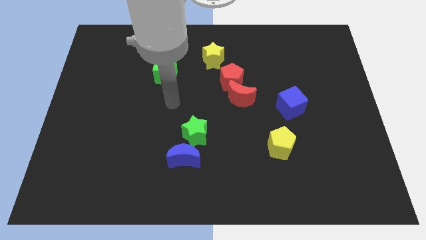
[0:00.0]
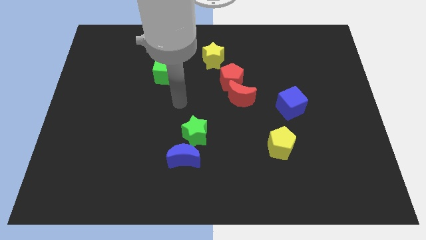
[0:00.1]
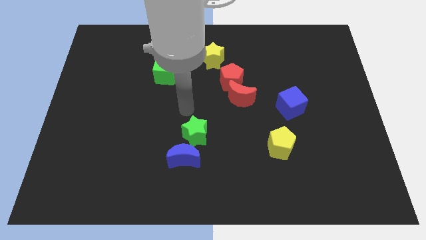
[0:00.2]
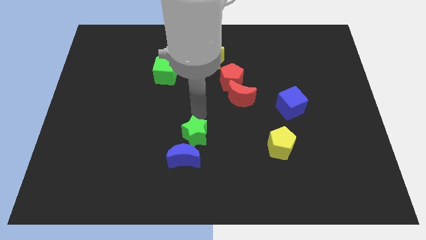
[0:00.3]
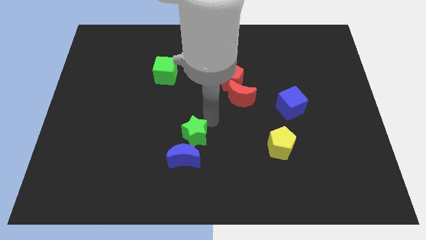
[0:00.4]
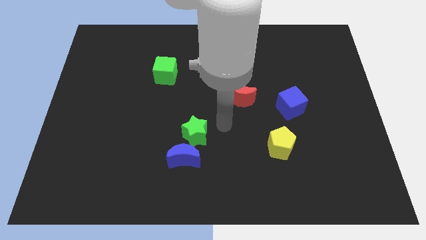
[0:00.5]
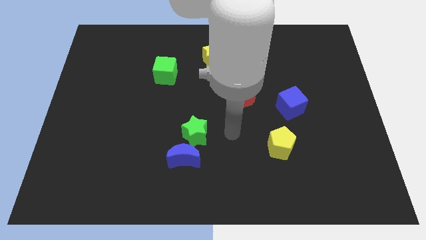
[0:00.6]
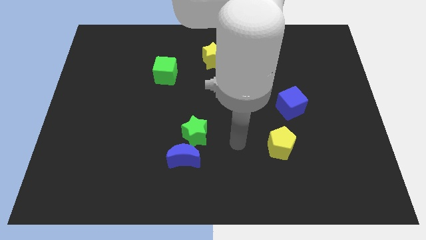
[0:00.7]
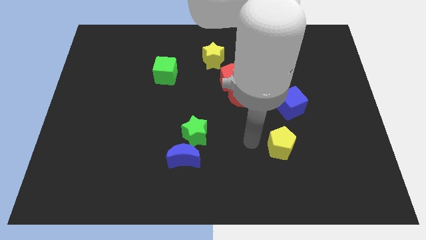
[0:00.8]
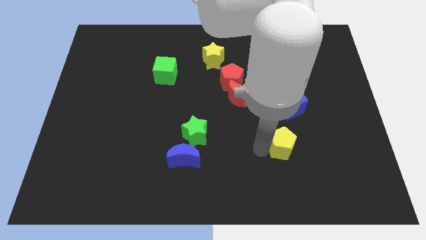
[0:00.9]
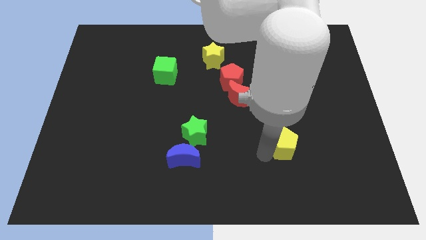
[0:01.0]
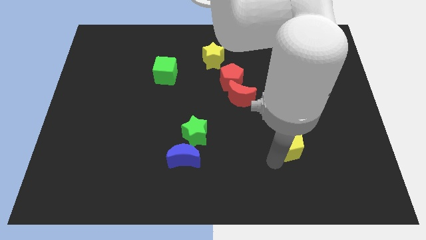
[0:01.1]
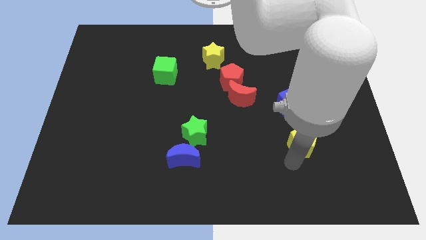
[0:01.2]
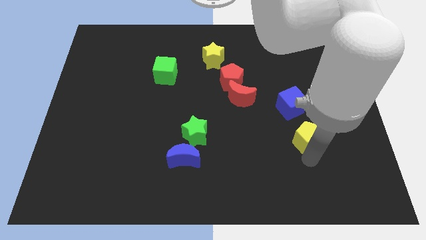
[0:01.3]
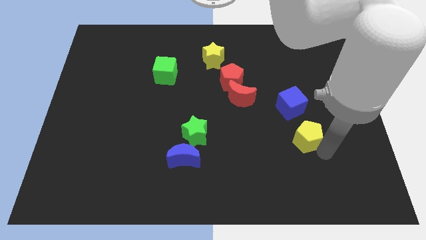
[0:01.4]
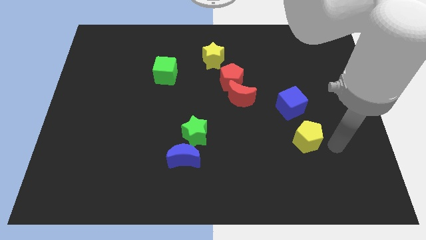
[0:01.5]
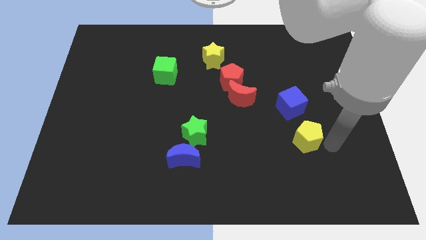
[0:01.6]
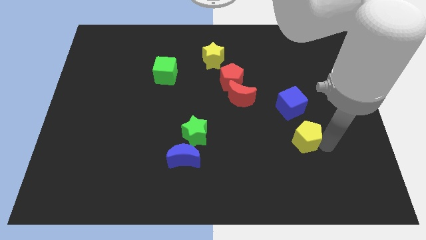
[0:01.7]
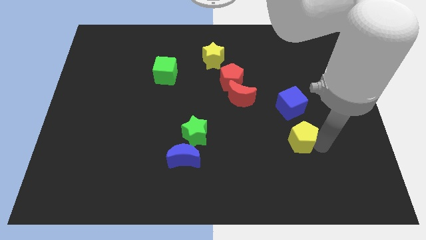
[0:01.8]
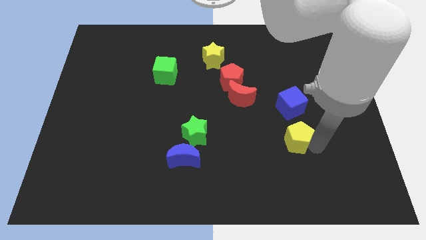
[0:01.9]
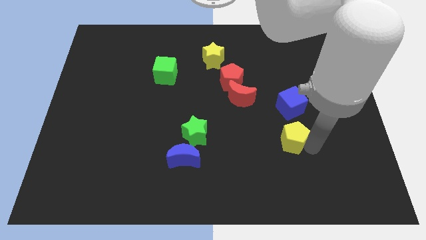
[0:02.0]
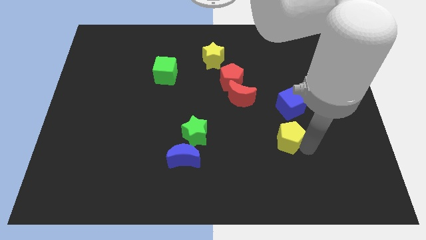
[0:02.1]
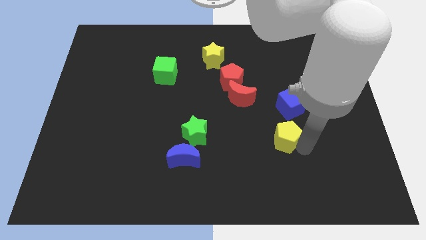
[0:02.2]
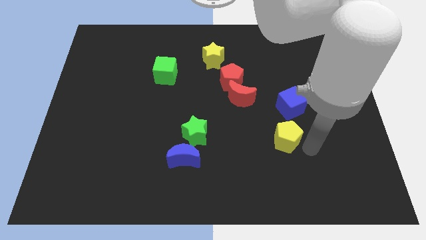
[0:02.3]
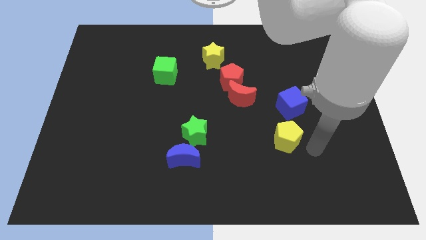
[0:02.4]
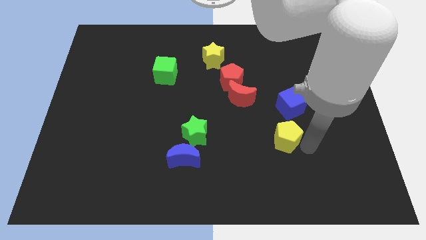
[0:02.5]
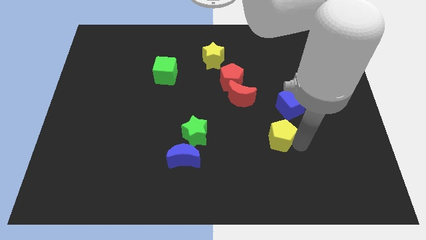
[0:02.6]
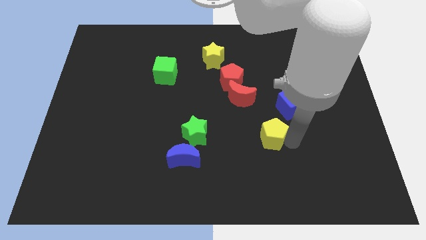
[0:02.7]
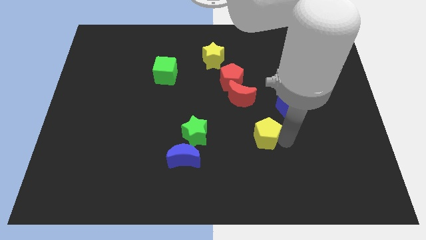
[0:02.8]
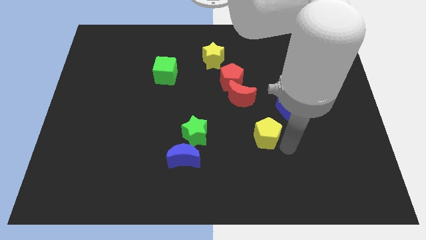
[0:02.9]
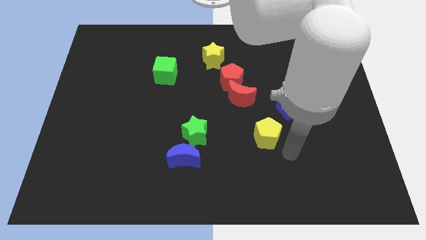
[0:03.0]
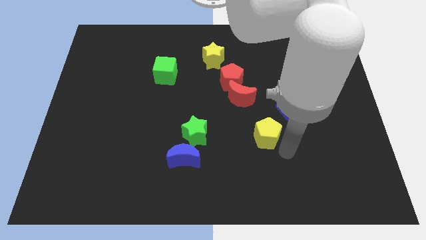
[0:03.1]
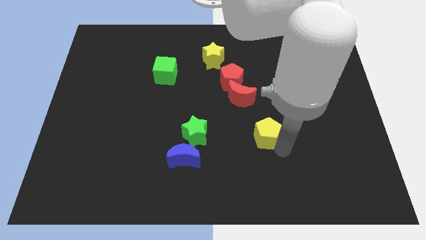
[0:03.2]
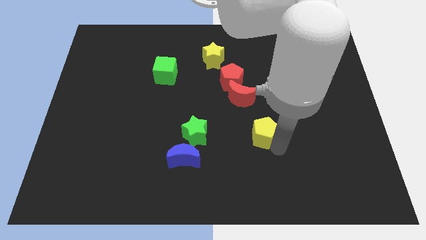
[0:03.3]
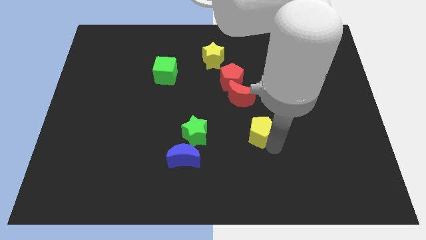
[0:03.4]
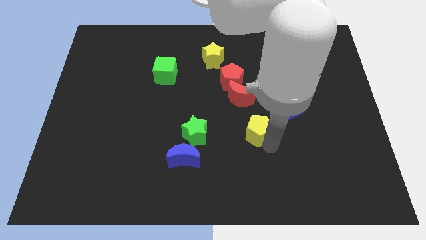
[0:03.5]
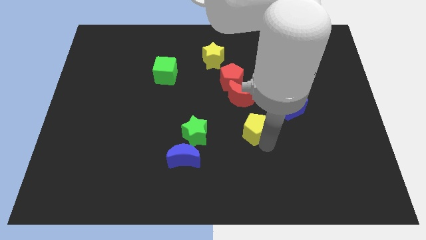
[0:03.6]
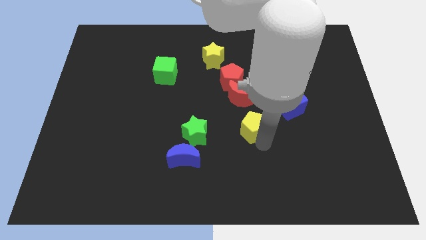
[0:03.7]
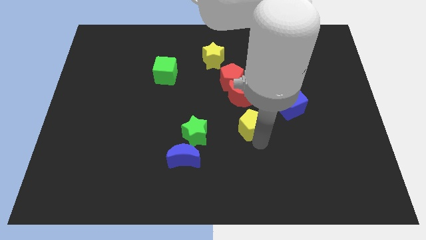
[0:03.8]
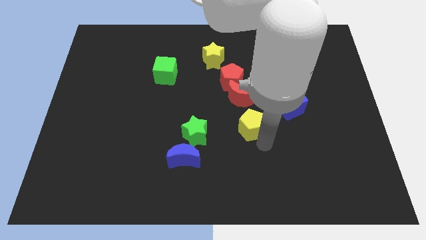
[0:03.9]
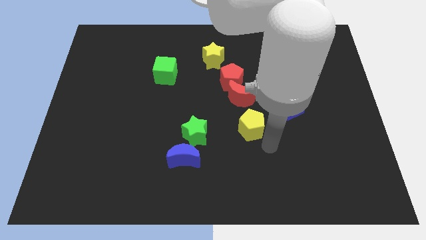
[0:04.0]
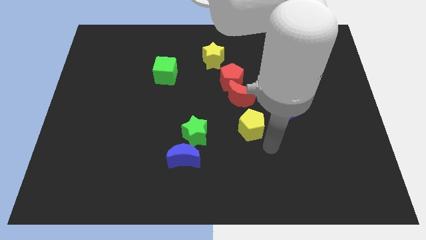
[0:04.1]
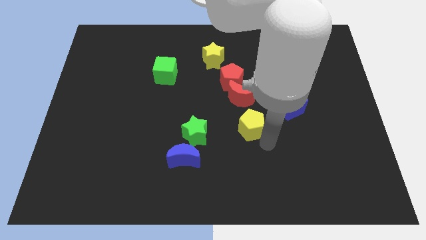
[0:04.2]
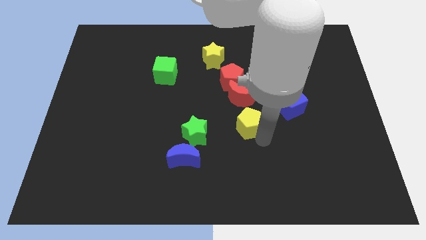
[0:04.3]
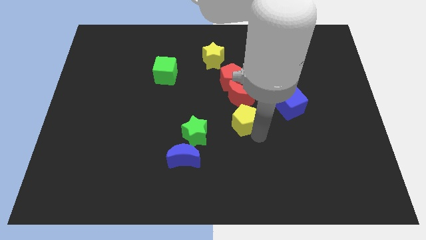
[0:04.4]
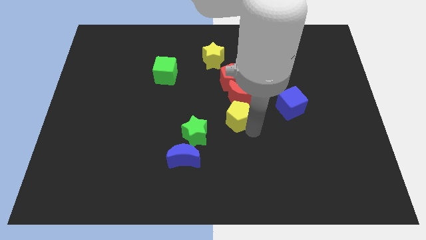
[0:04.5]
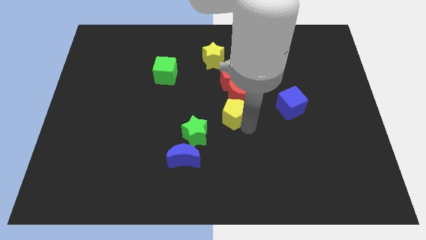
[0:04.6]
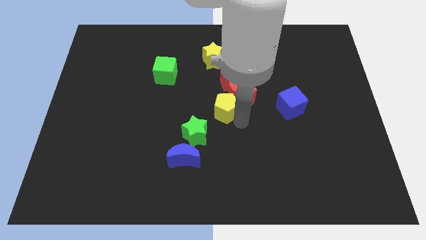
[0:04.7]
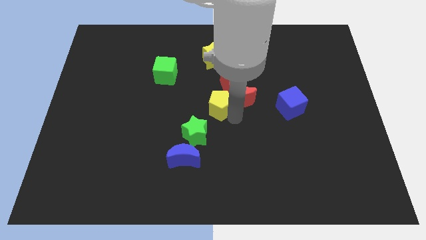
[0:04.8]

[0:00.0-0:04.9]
move the yellow pentagon diagonally down and to the left of the red pentagon

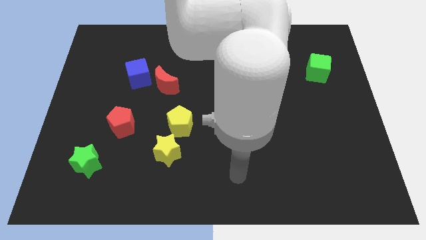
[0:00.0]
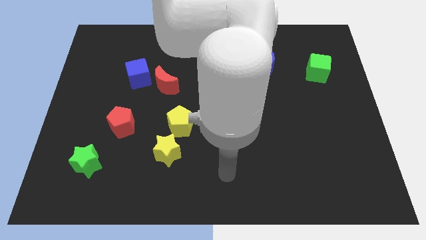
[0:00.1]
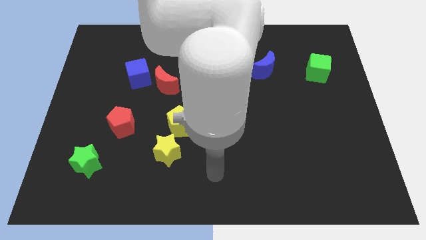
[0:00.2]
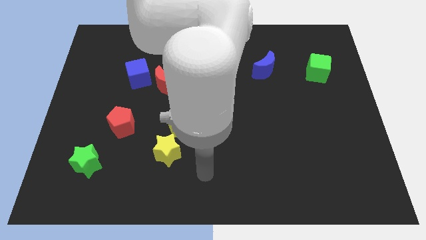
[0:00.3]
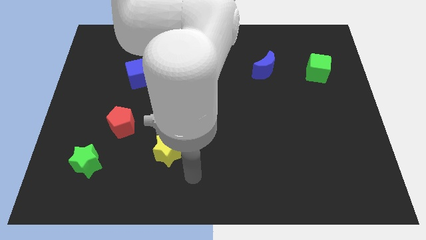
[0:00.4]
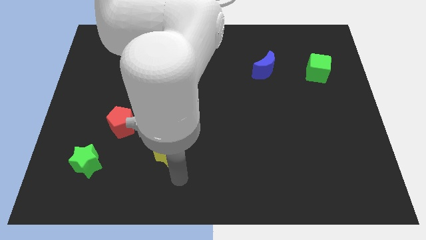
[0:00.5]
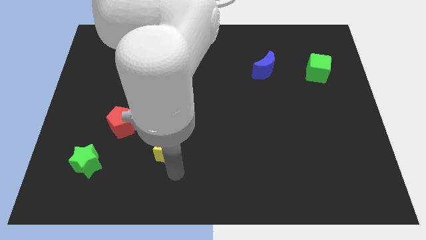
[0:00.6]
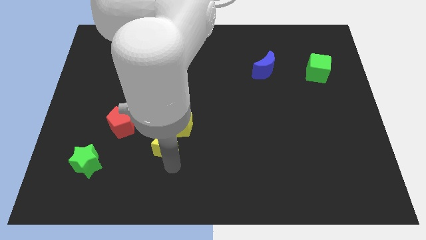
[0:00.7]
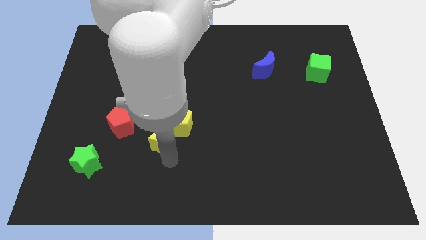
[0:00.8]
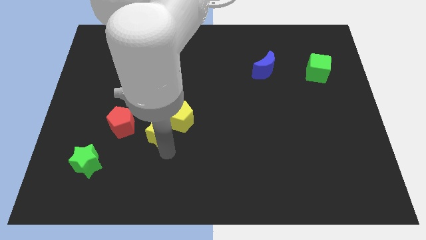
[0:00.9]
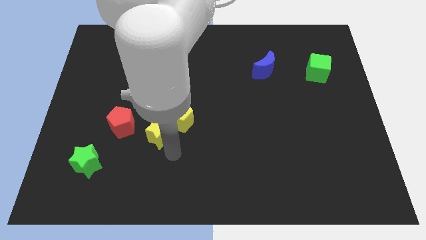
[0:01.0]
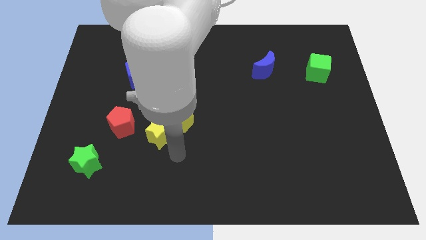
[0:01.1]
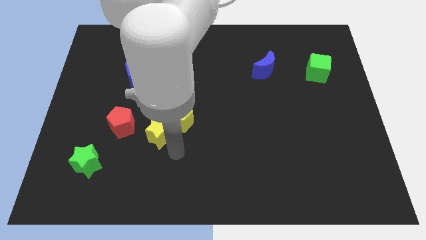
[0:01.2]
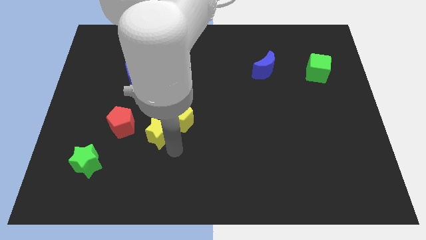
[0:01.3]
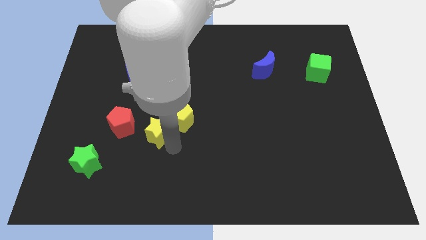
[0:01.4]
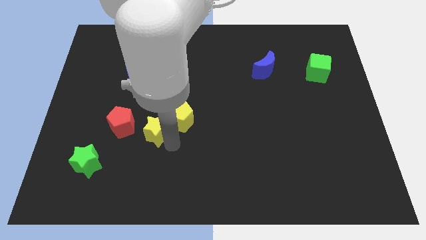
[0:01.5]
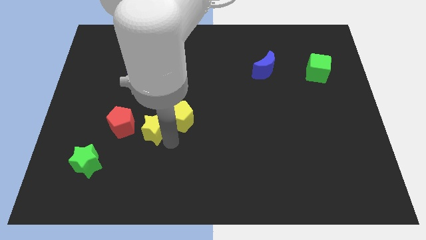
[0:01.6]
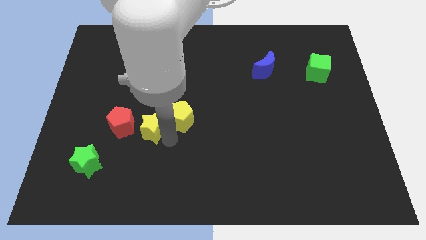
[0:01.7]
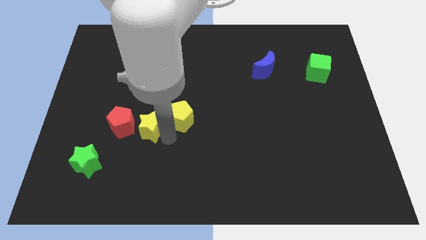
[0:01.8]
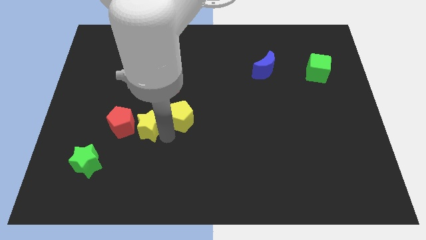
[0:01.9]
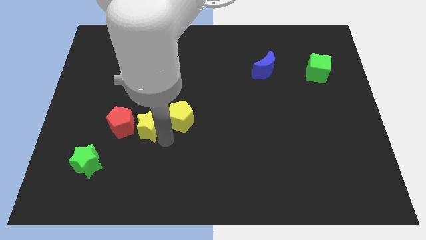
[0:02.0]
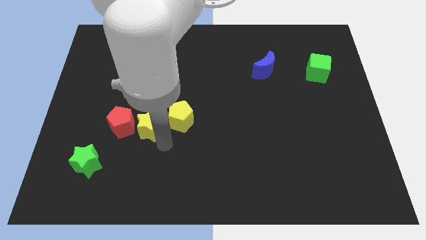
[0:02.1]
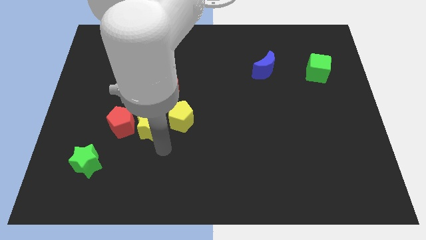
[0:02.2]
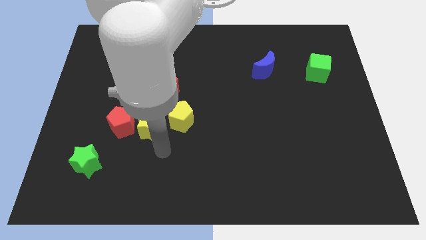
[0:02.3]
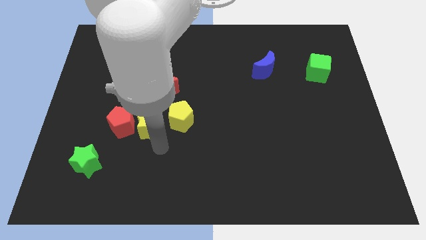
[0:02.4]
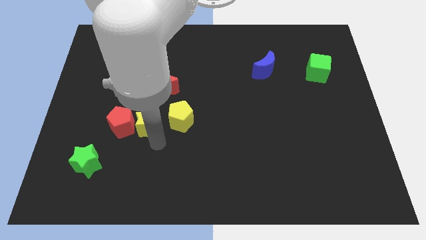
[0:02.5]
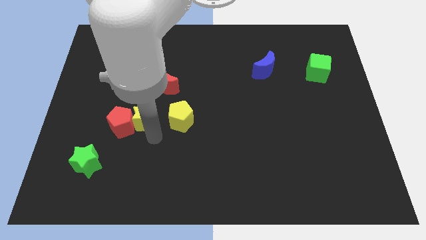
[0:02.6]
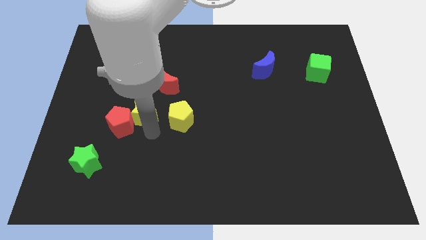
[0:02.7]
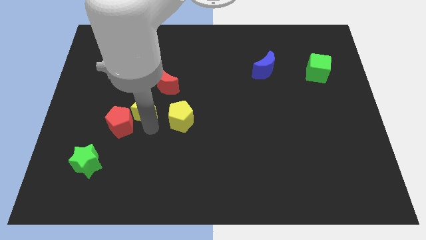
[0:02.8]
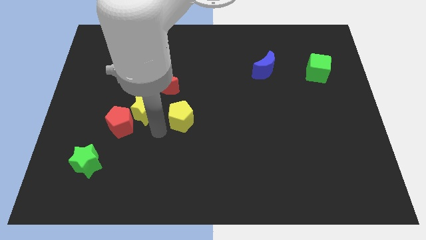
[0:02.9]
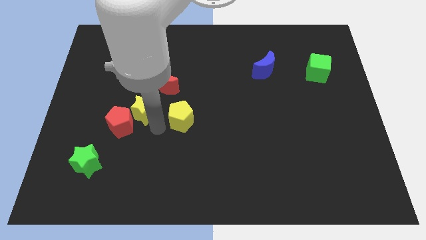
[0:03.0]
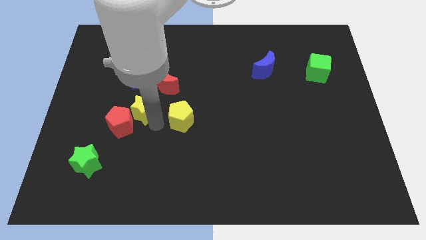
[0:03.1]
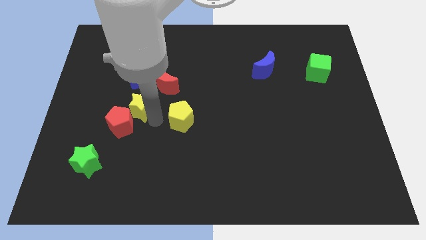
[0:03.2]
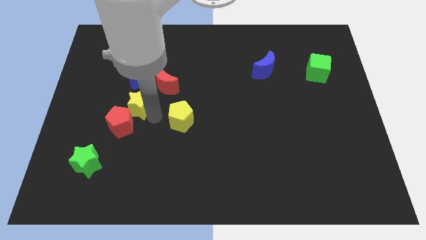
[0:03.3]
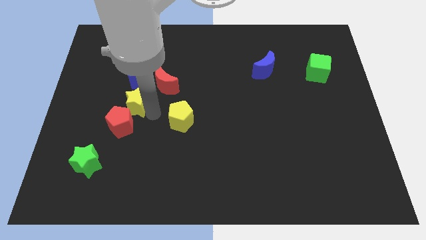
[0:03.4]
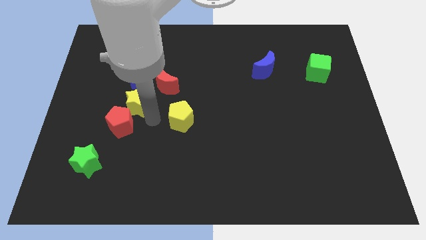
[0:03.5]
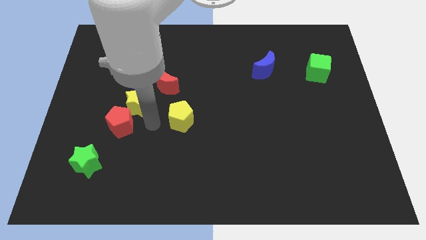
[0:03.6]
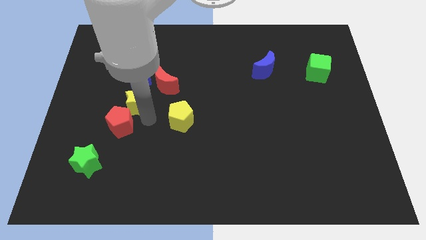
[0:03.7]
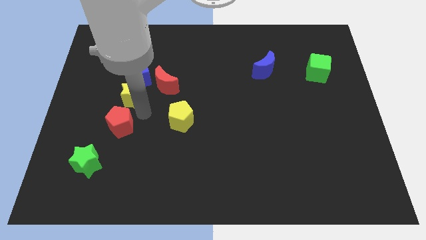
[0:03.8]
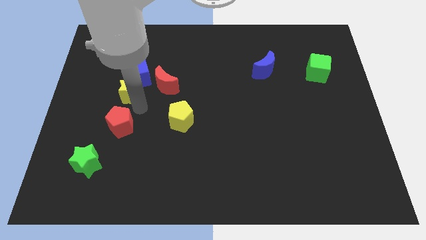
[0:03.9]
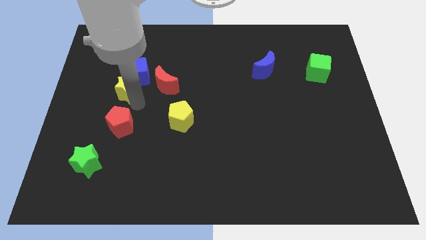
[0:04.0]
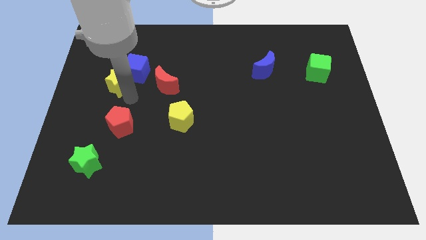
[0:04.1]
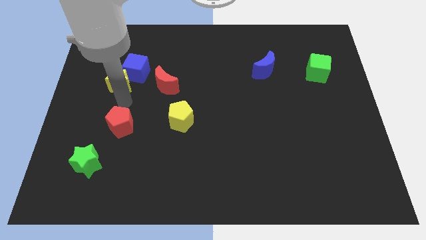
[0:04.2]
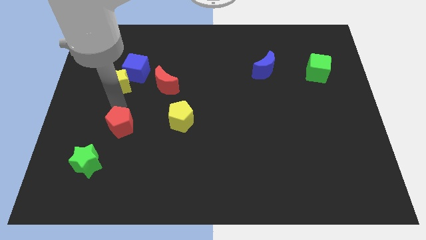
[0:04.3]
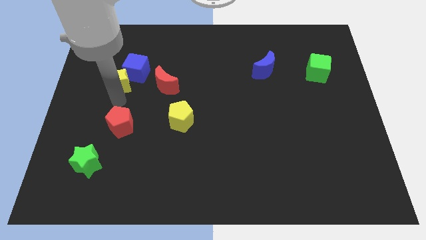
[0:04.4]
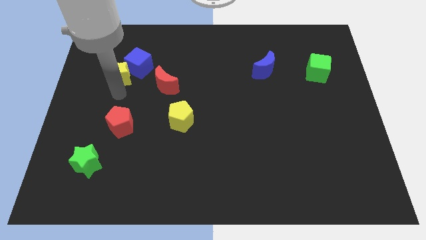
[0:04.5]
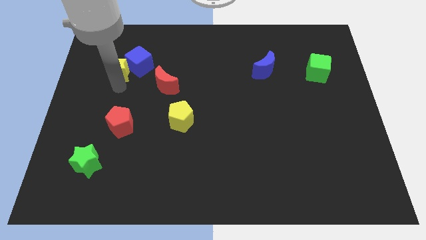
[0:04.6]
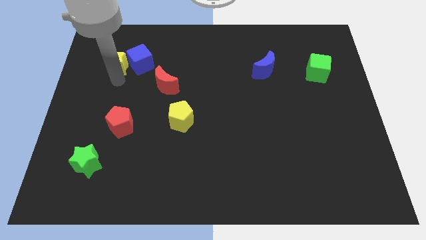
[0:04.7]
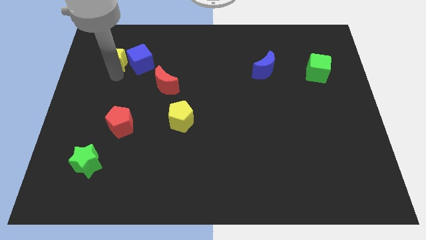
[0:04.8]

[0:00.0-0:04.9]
put the yellow star to the top left side of the blue cube
